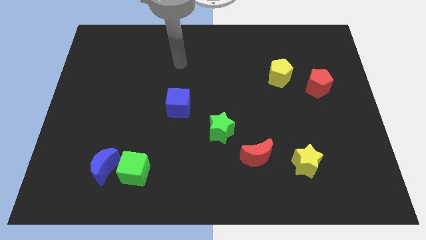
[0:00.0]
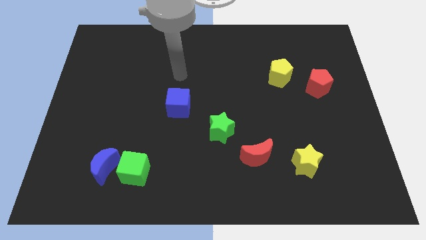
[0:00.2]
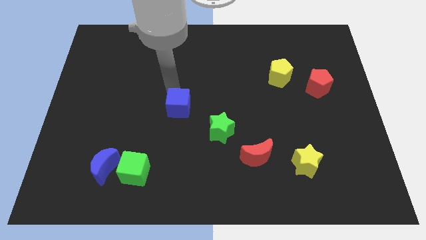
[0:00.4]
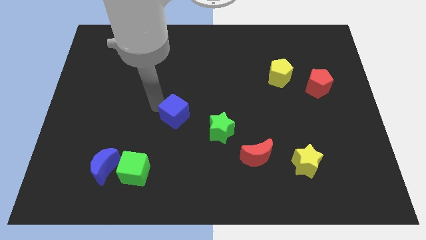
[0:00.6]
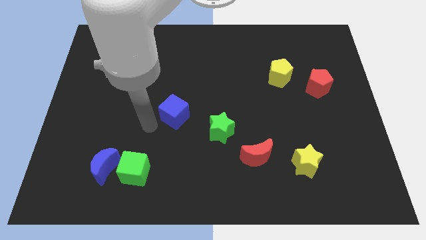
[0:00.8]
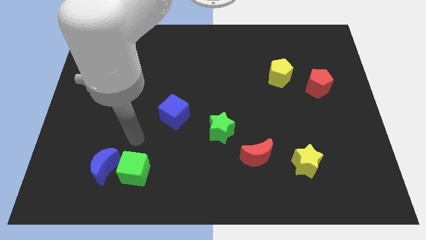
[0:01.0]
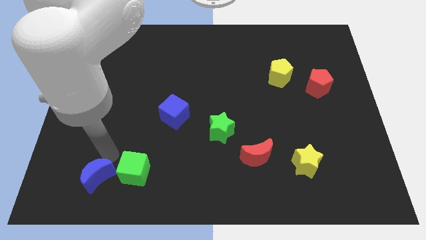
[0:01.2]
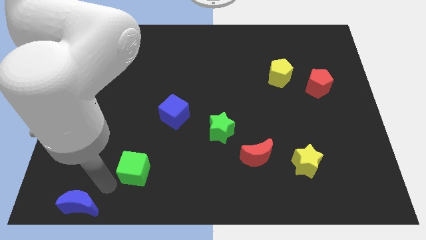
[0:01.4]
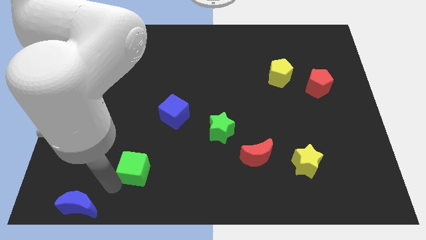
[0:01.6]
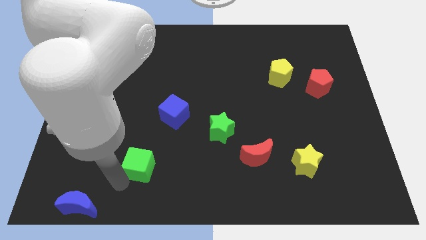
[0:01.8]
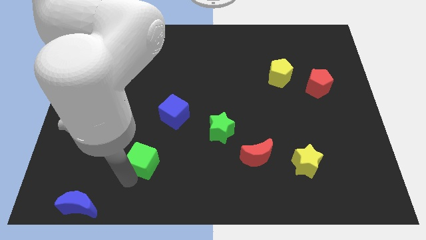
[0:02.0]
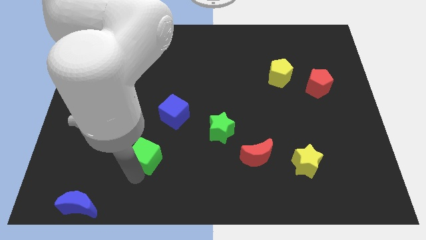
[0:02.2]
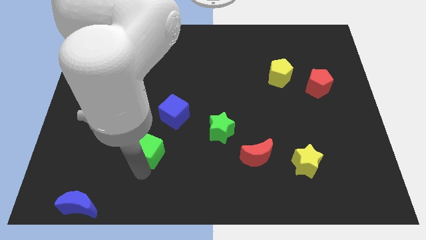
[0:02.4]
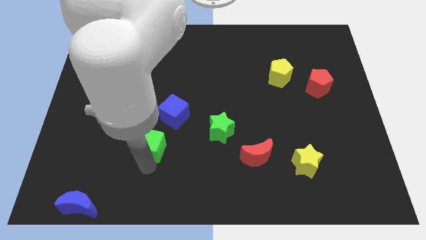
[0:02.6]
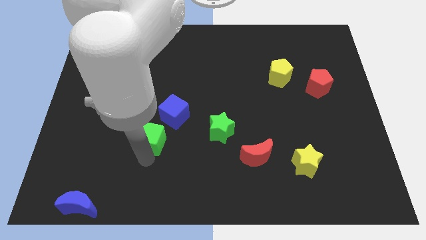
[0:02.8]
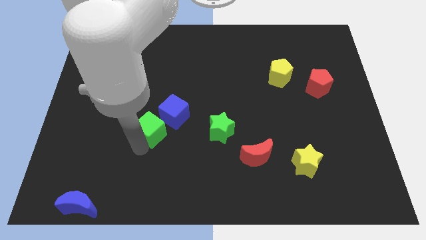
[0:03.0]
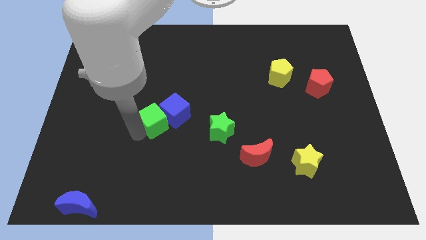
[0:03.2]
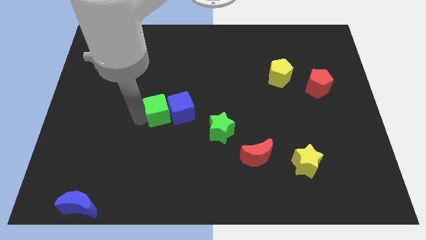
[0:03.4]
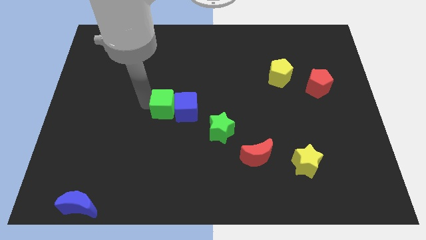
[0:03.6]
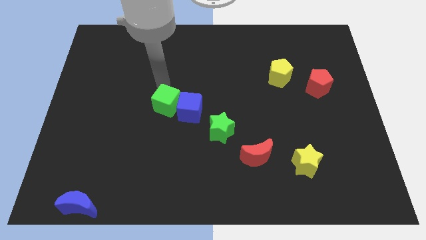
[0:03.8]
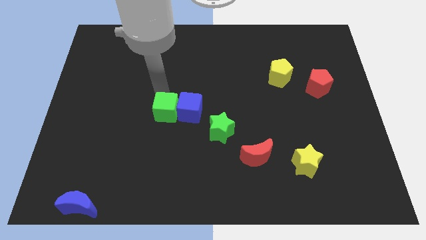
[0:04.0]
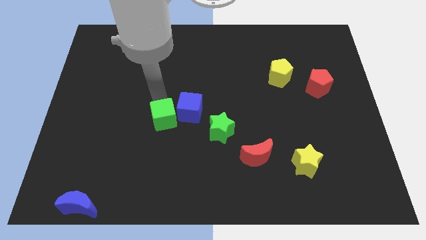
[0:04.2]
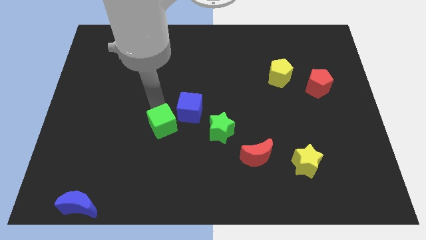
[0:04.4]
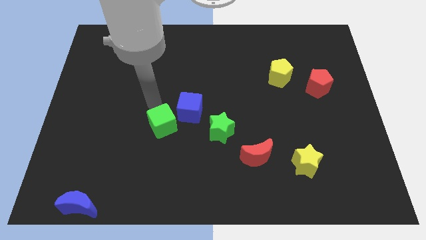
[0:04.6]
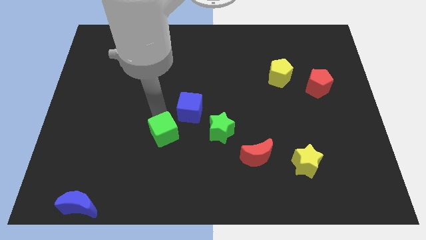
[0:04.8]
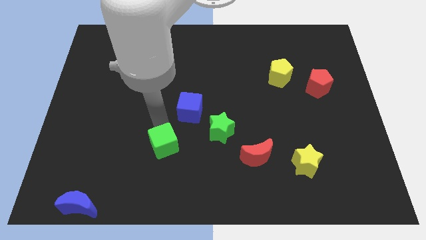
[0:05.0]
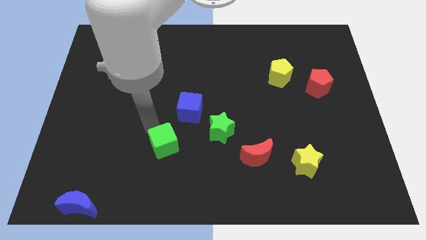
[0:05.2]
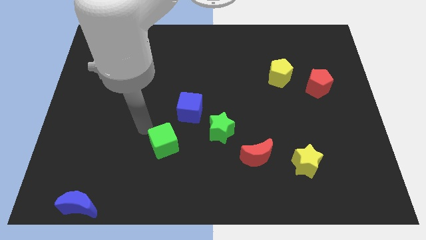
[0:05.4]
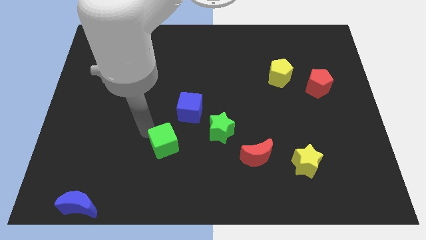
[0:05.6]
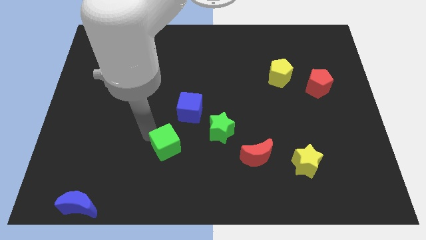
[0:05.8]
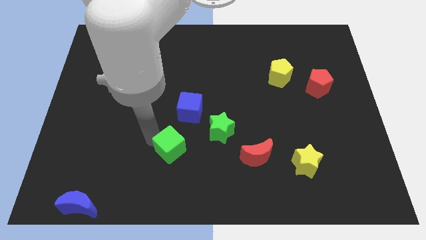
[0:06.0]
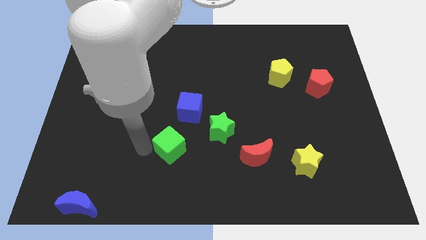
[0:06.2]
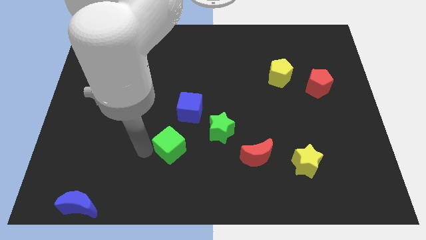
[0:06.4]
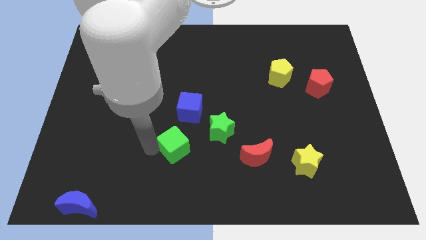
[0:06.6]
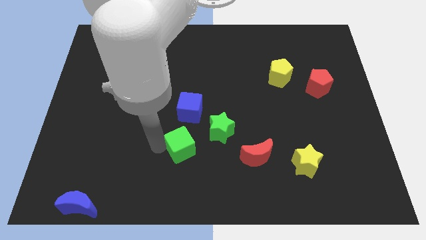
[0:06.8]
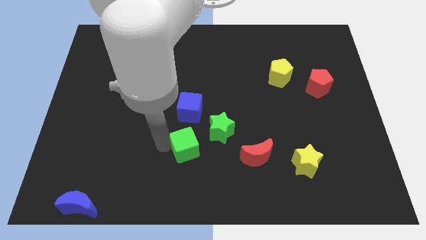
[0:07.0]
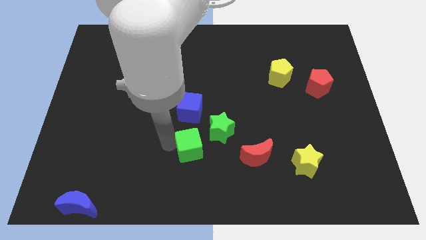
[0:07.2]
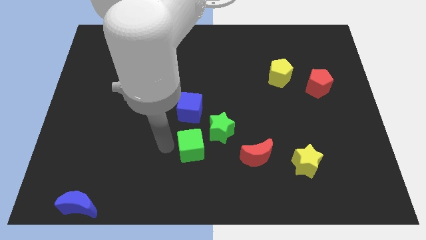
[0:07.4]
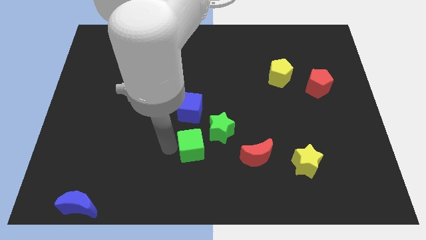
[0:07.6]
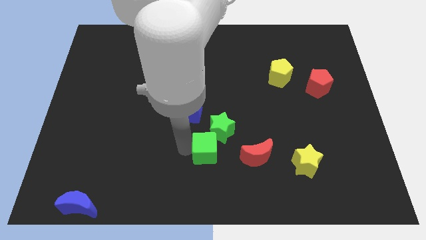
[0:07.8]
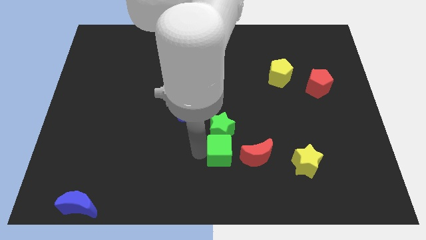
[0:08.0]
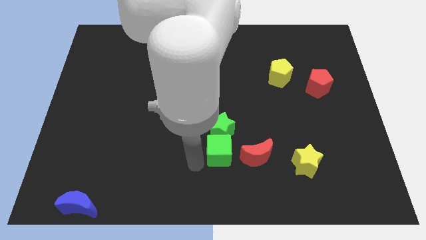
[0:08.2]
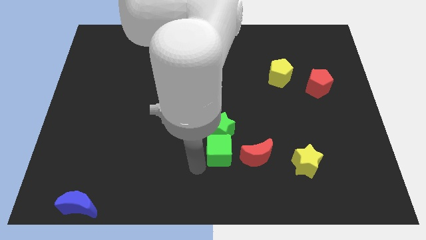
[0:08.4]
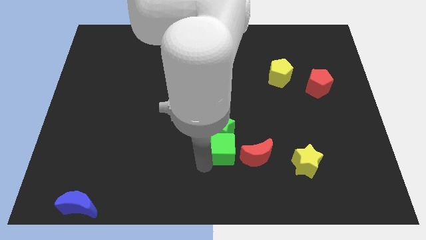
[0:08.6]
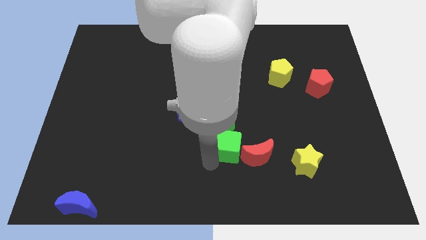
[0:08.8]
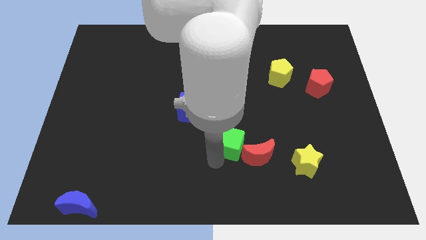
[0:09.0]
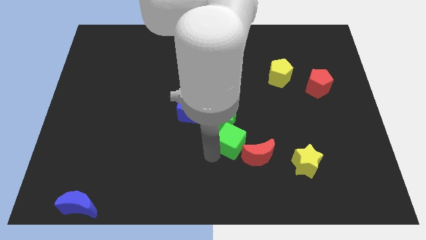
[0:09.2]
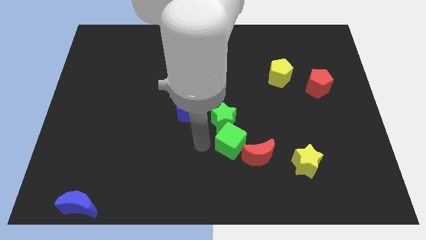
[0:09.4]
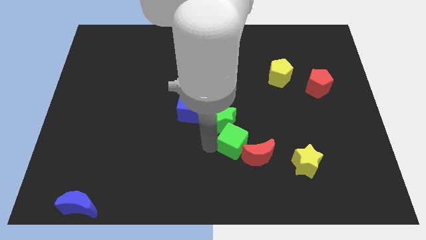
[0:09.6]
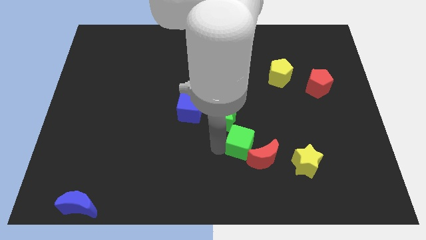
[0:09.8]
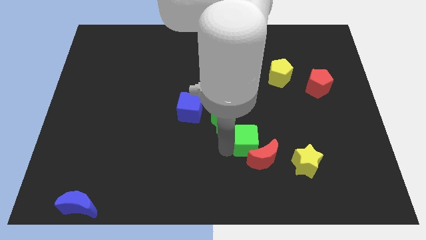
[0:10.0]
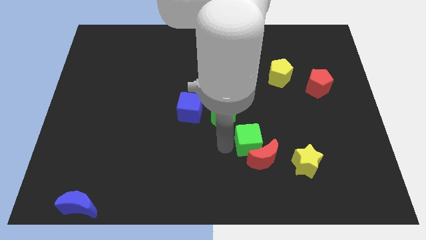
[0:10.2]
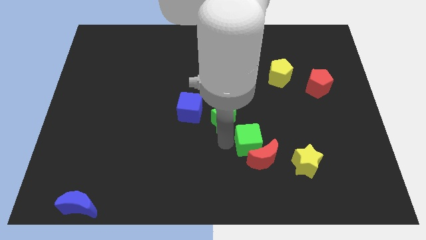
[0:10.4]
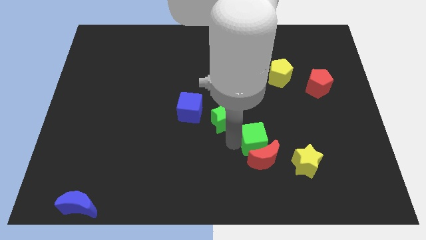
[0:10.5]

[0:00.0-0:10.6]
push the green cube diagonally up and to the left of the yellow star

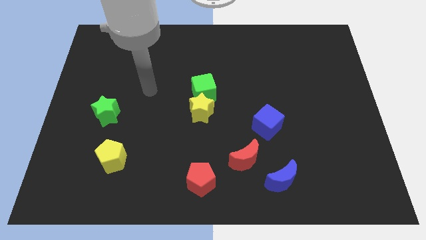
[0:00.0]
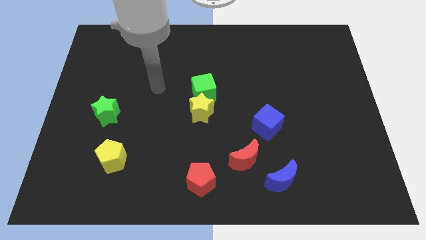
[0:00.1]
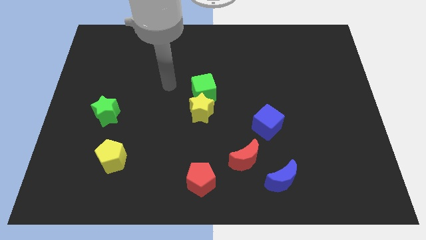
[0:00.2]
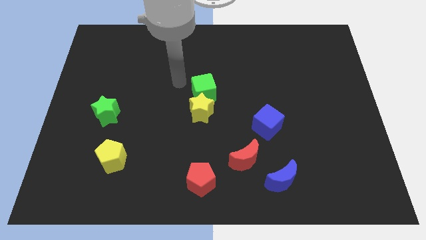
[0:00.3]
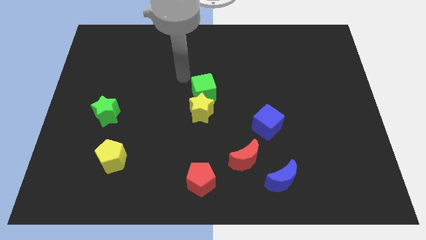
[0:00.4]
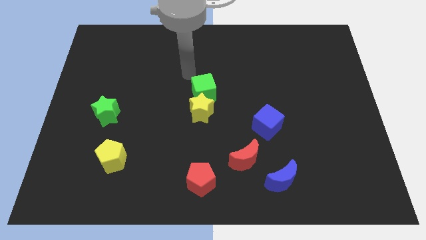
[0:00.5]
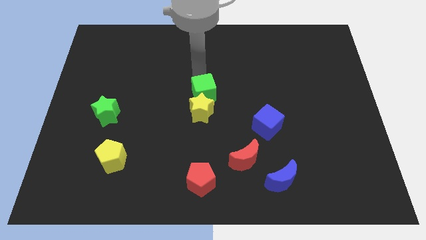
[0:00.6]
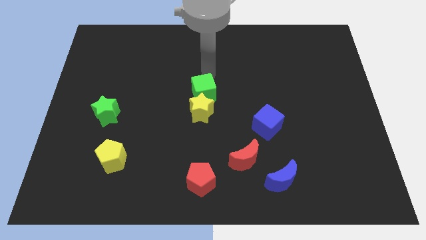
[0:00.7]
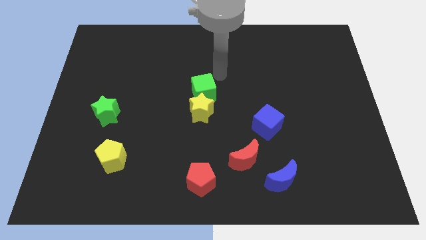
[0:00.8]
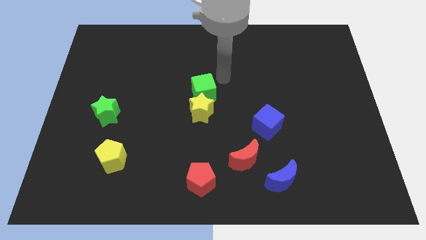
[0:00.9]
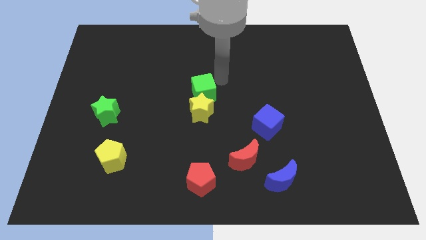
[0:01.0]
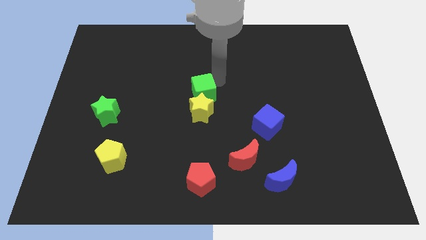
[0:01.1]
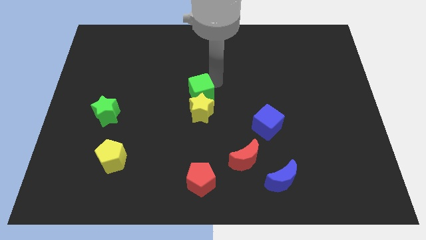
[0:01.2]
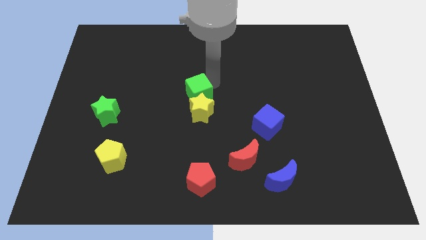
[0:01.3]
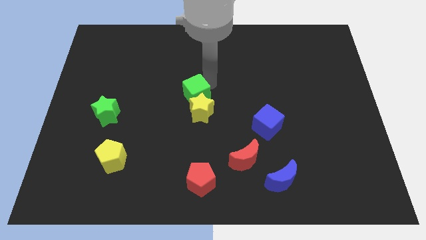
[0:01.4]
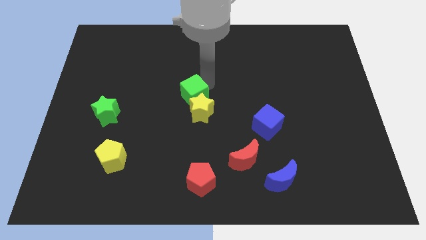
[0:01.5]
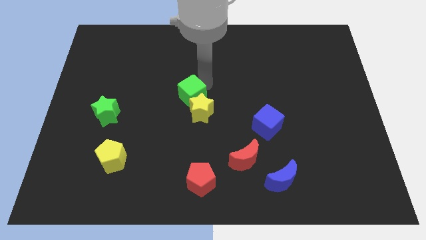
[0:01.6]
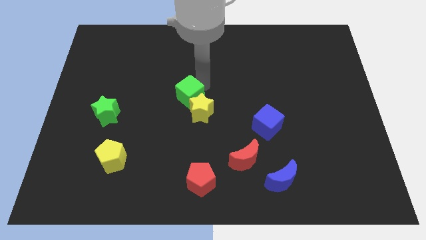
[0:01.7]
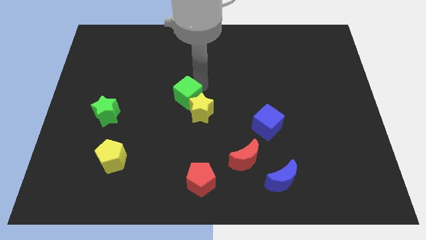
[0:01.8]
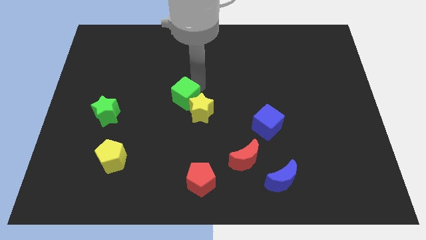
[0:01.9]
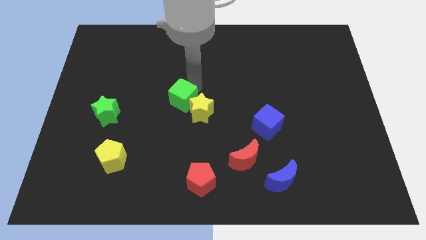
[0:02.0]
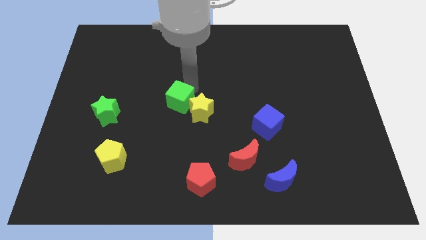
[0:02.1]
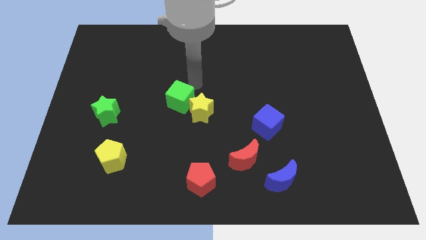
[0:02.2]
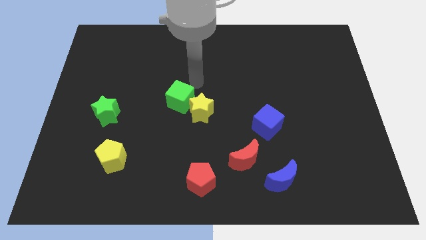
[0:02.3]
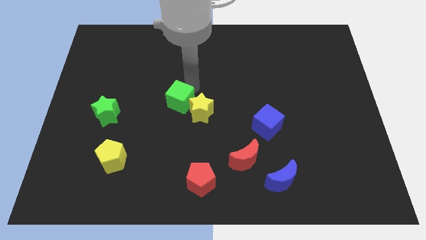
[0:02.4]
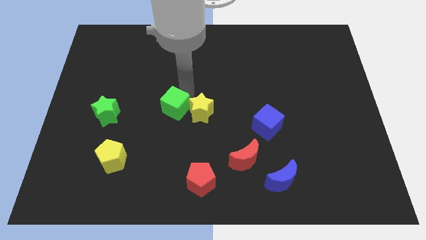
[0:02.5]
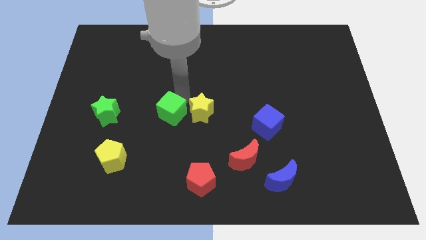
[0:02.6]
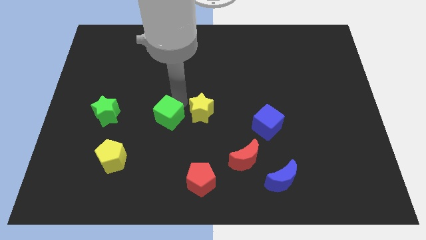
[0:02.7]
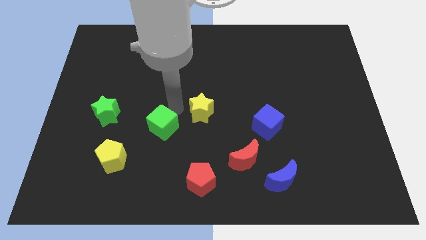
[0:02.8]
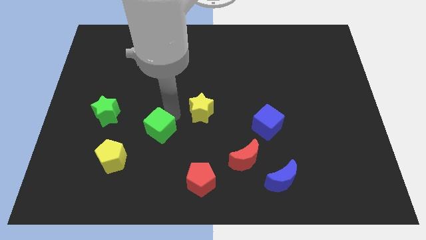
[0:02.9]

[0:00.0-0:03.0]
put the green cube diagonally up and to the right of the yellow pentagon
